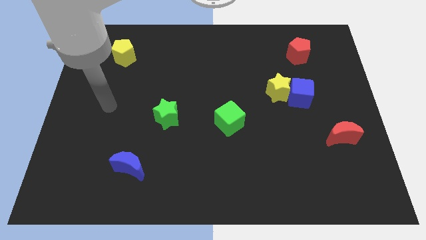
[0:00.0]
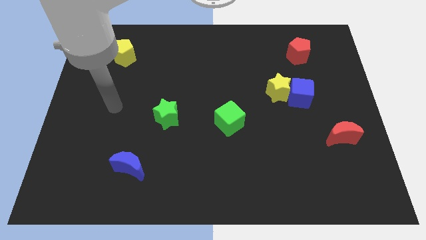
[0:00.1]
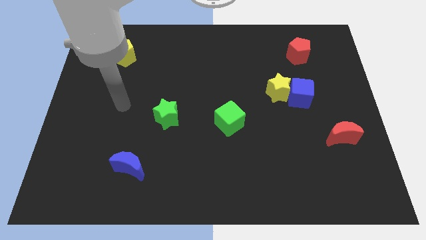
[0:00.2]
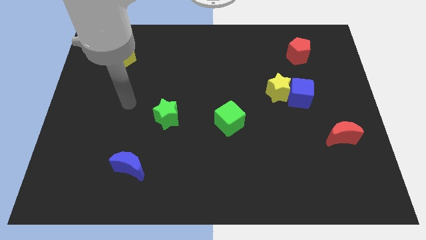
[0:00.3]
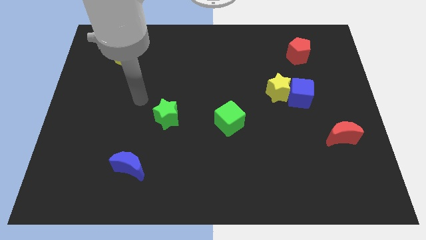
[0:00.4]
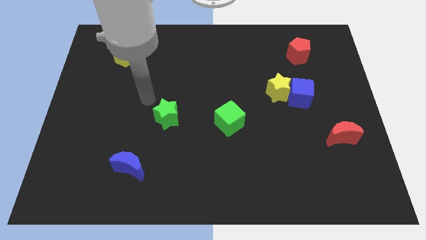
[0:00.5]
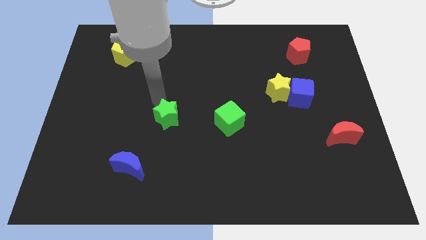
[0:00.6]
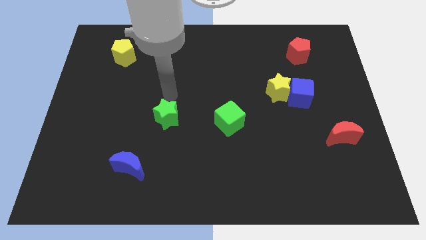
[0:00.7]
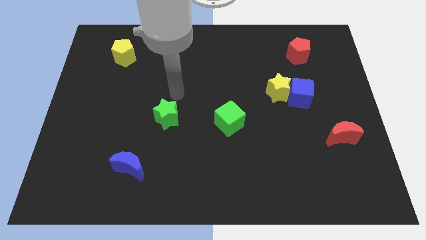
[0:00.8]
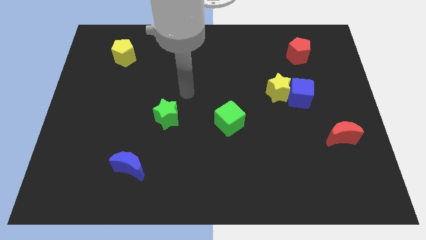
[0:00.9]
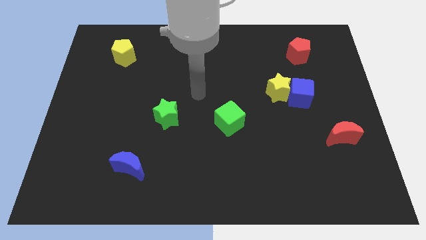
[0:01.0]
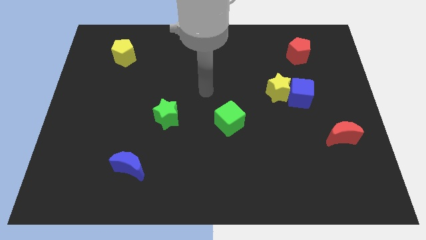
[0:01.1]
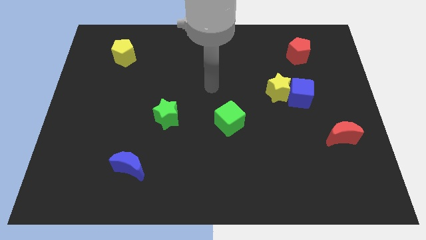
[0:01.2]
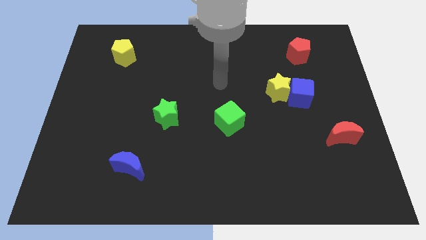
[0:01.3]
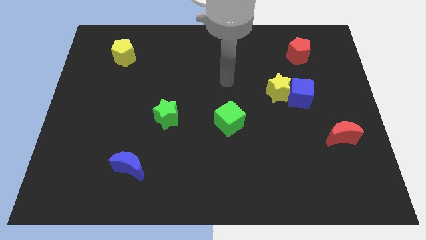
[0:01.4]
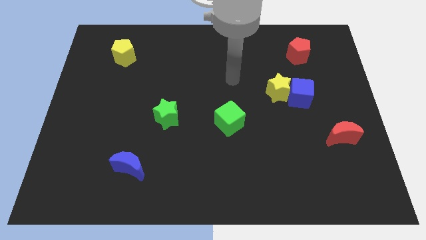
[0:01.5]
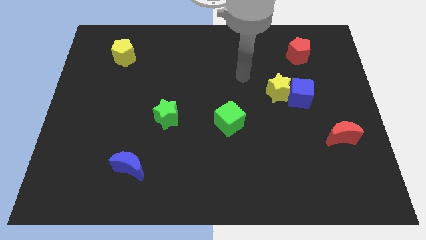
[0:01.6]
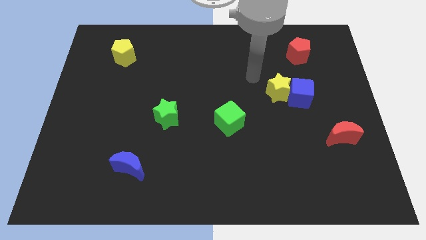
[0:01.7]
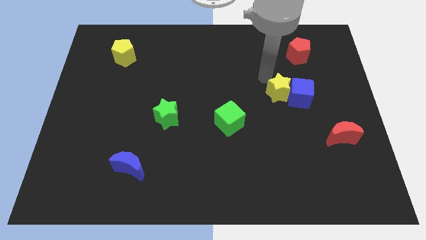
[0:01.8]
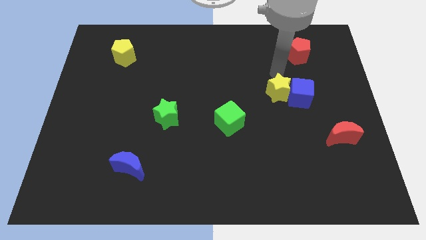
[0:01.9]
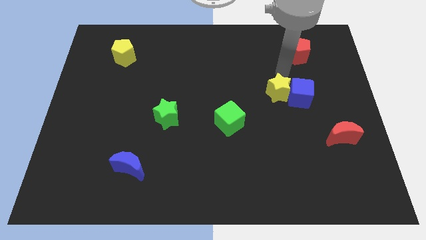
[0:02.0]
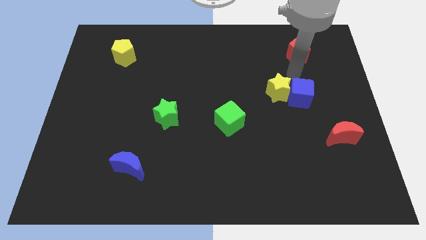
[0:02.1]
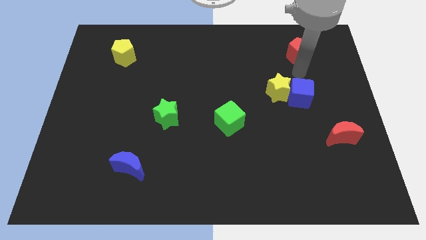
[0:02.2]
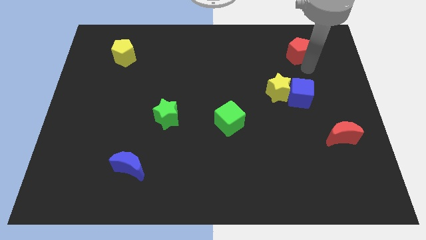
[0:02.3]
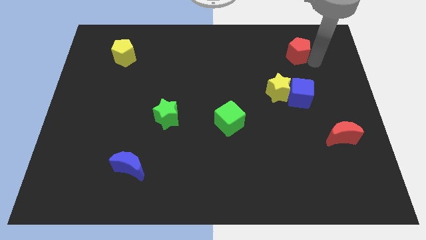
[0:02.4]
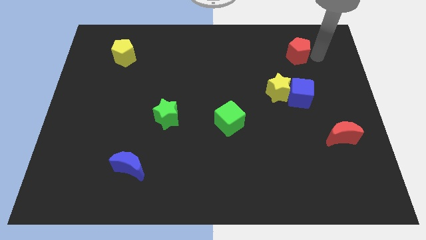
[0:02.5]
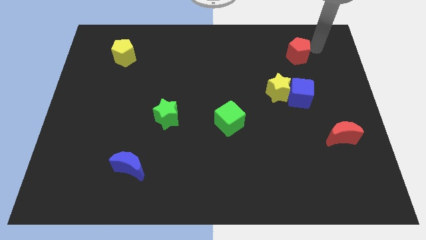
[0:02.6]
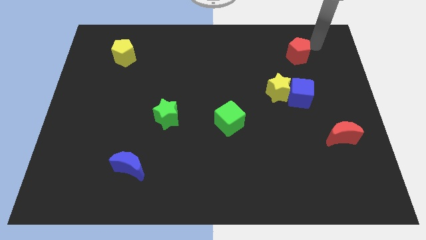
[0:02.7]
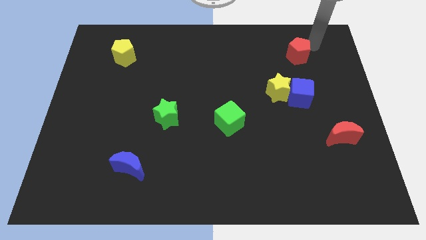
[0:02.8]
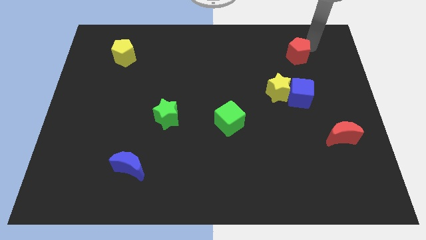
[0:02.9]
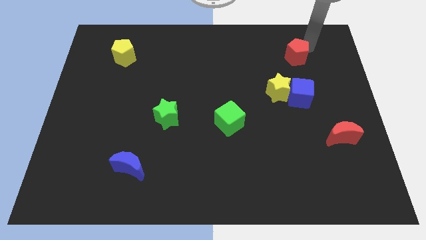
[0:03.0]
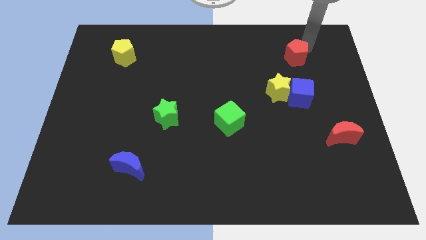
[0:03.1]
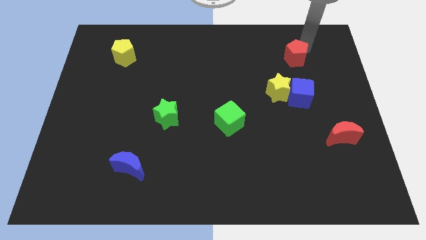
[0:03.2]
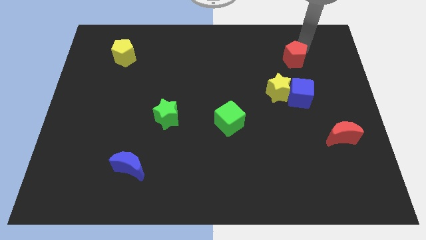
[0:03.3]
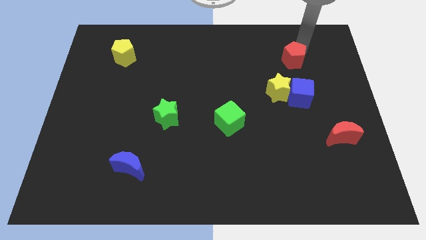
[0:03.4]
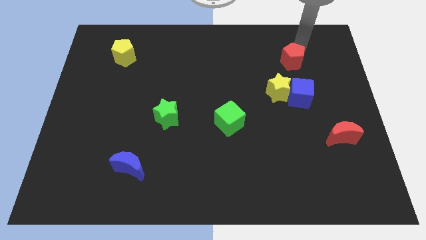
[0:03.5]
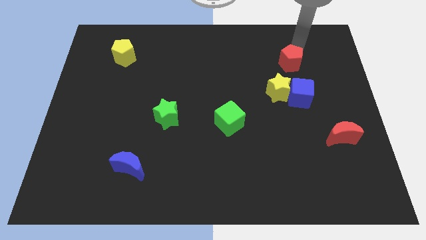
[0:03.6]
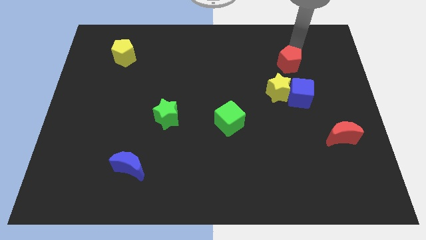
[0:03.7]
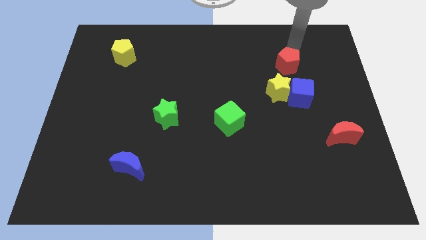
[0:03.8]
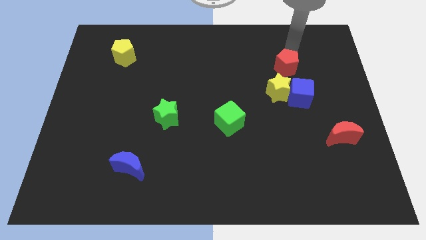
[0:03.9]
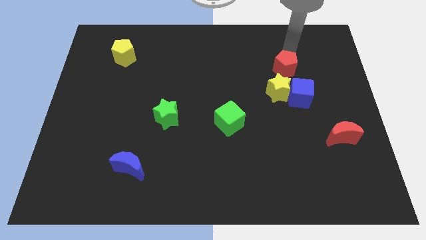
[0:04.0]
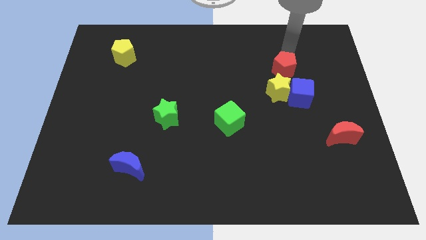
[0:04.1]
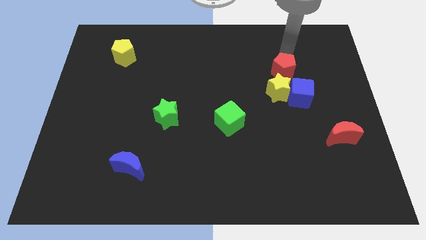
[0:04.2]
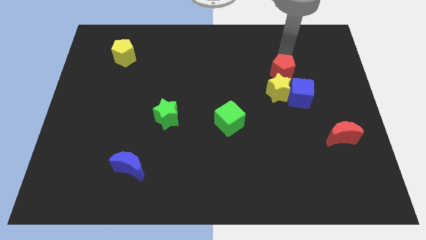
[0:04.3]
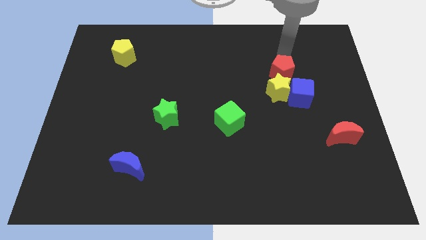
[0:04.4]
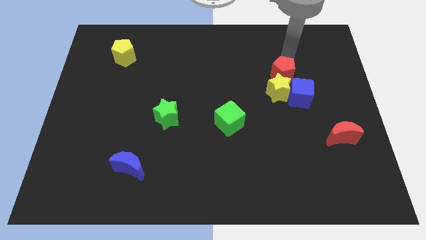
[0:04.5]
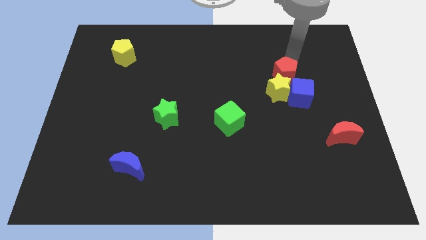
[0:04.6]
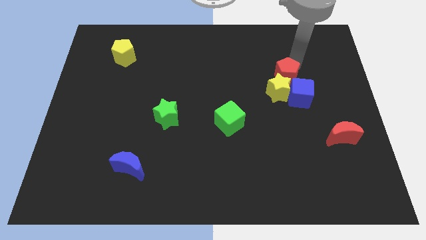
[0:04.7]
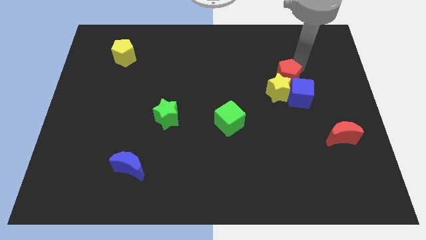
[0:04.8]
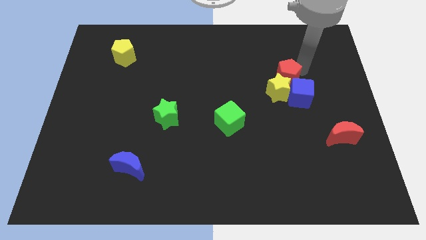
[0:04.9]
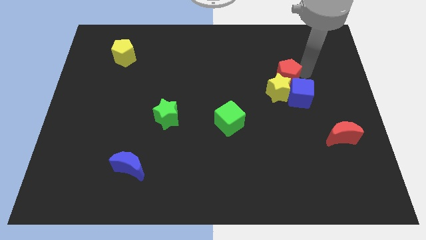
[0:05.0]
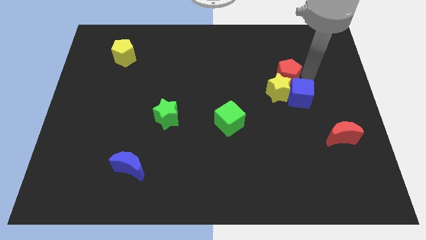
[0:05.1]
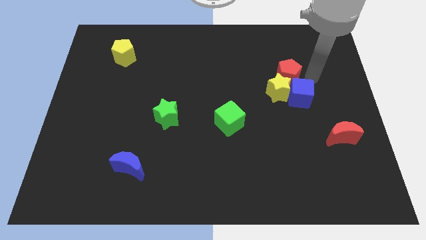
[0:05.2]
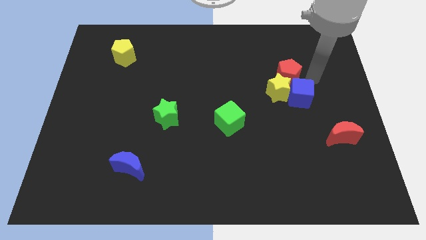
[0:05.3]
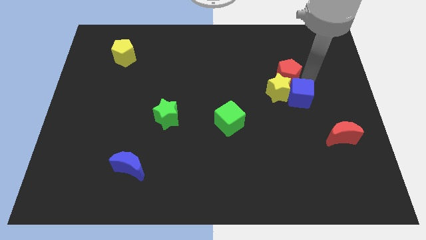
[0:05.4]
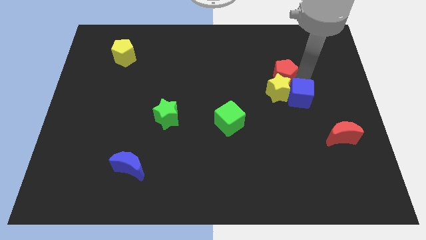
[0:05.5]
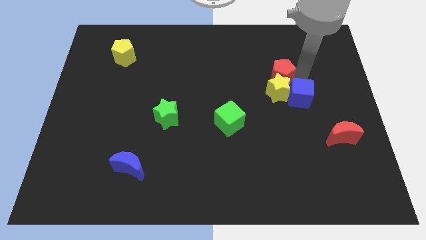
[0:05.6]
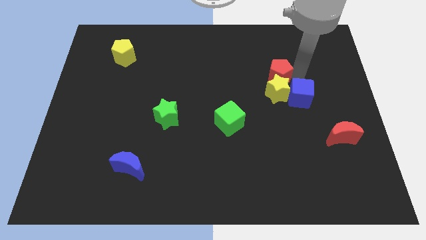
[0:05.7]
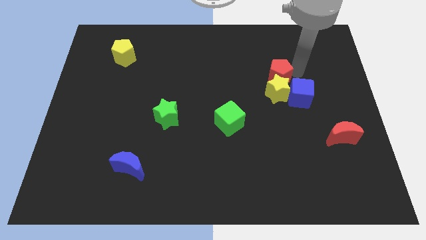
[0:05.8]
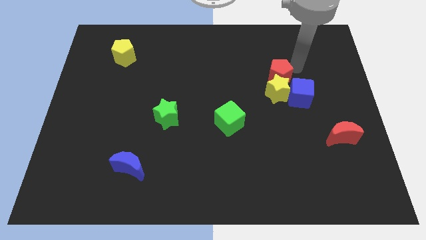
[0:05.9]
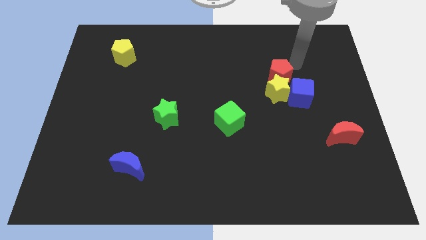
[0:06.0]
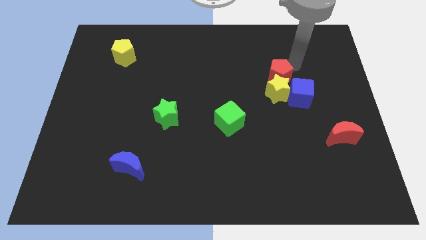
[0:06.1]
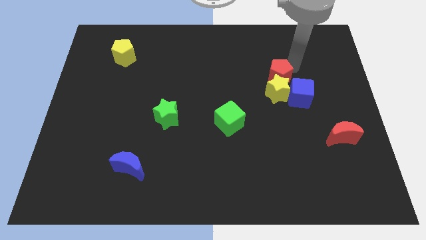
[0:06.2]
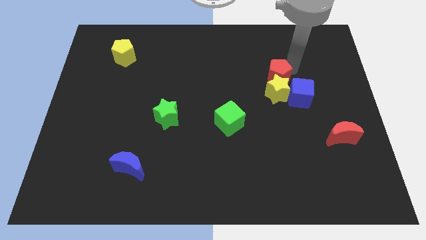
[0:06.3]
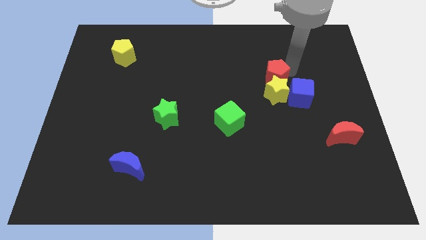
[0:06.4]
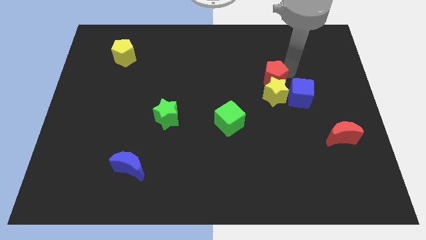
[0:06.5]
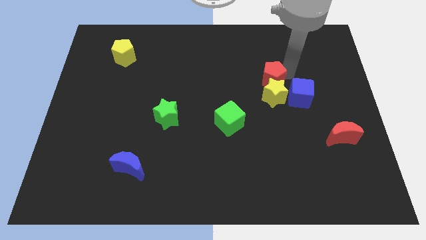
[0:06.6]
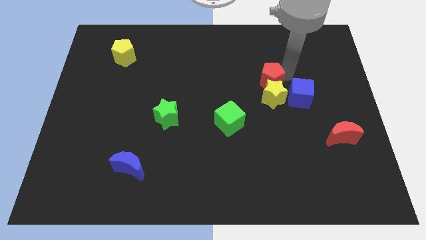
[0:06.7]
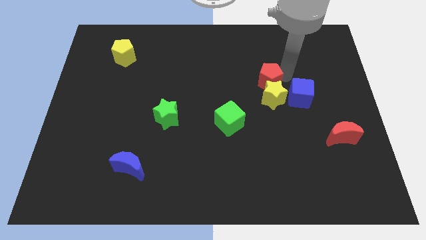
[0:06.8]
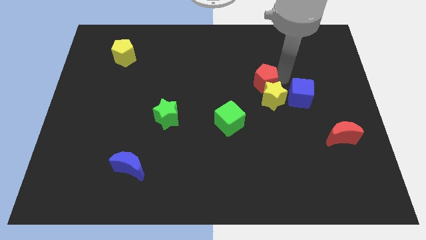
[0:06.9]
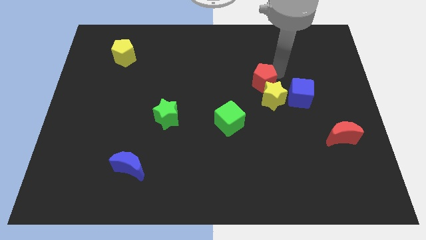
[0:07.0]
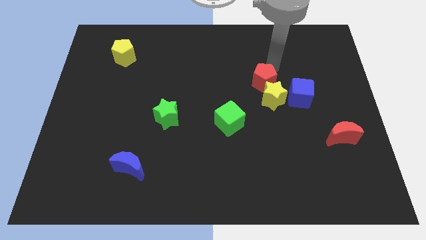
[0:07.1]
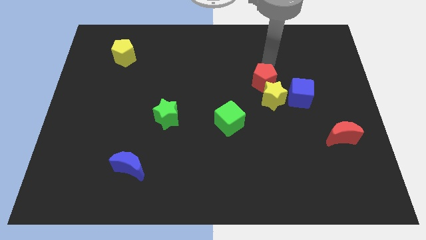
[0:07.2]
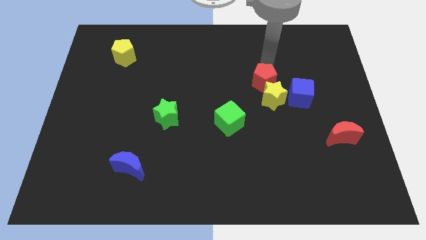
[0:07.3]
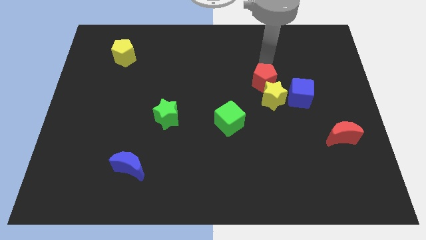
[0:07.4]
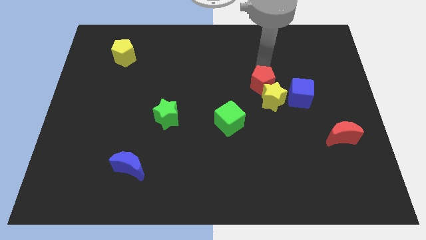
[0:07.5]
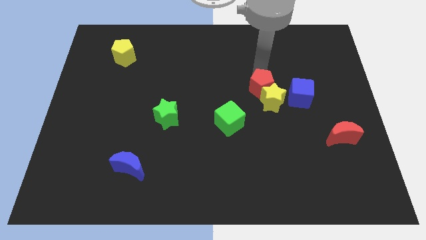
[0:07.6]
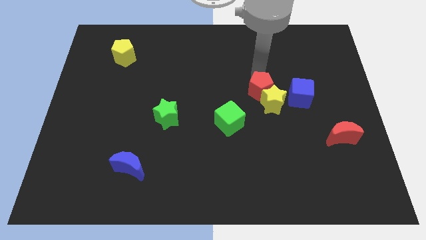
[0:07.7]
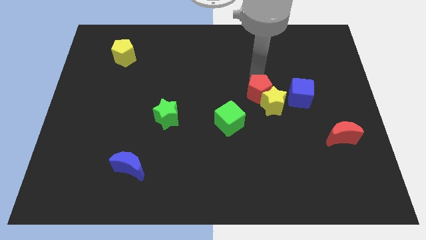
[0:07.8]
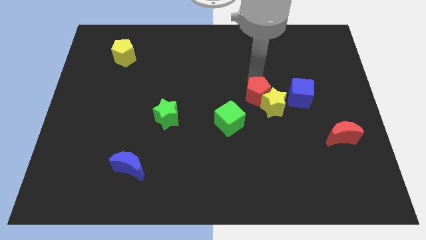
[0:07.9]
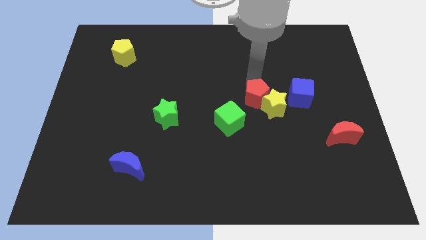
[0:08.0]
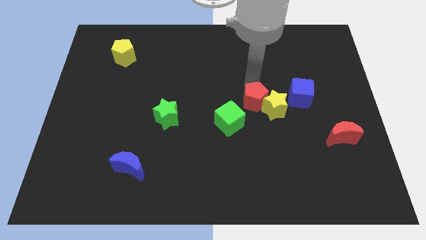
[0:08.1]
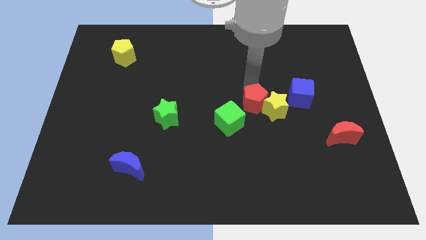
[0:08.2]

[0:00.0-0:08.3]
put the red pentagon to the bottom left of the yellow star
